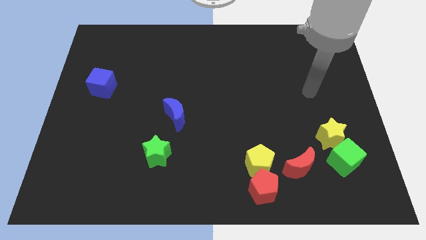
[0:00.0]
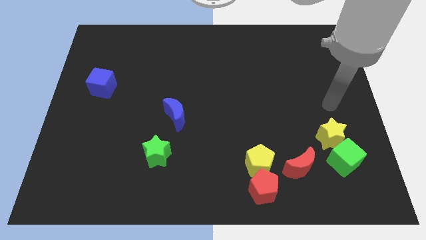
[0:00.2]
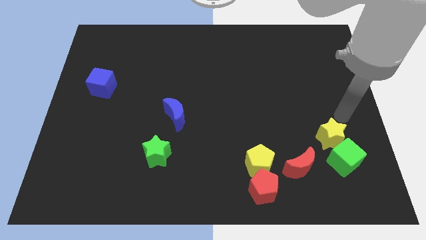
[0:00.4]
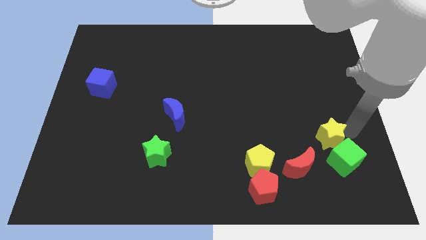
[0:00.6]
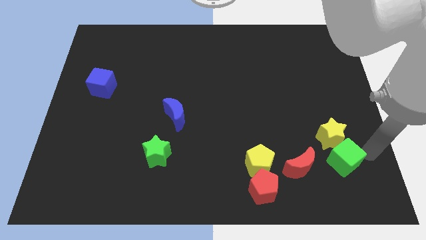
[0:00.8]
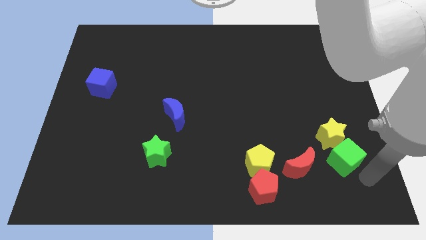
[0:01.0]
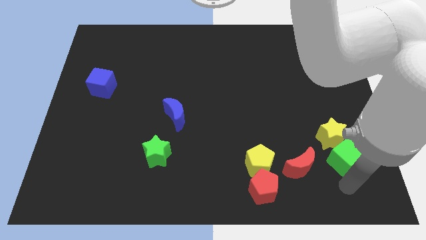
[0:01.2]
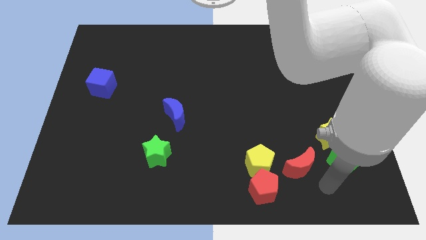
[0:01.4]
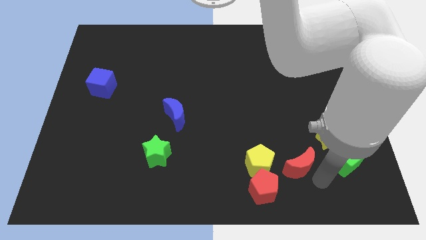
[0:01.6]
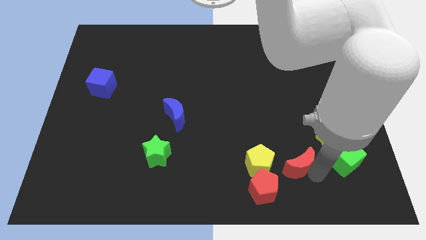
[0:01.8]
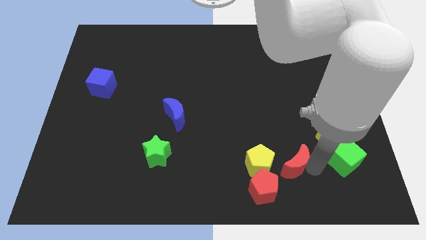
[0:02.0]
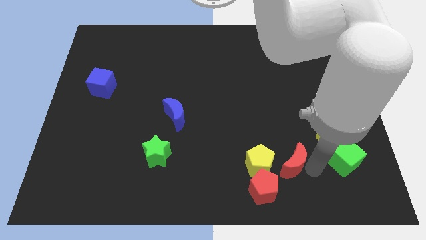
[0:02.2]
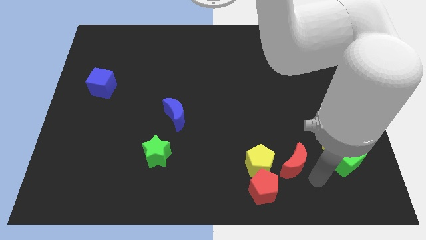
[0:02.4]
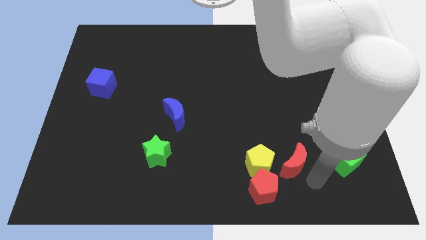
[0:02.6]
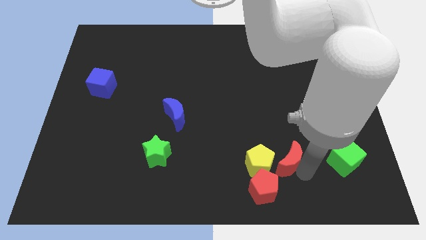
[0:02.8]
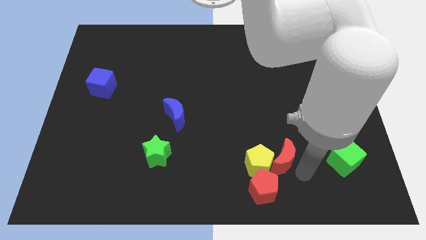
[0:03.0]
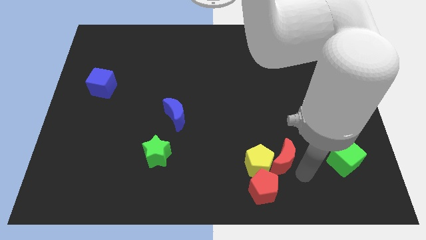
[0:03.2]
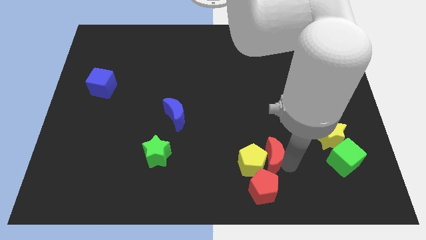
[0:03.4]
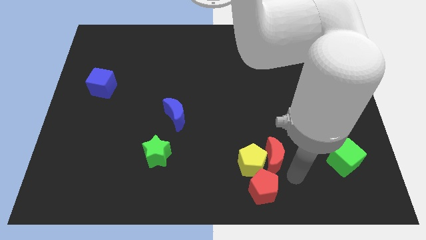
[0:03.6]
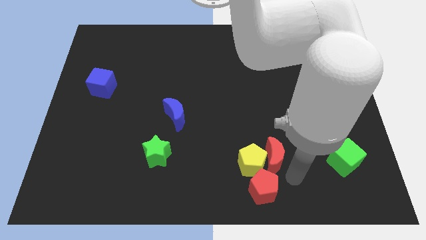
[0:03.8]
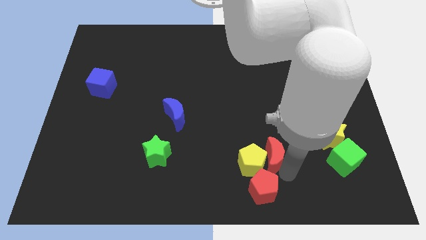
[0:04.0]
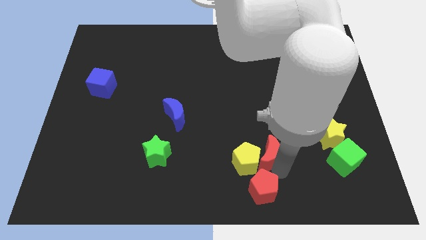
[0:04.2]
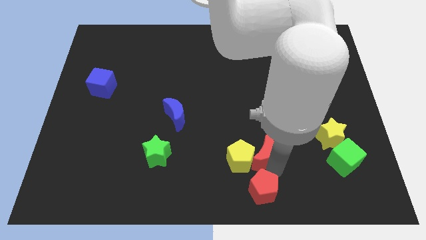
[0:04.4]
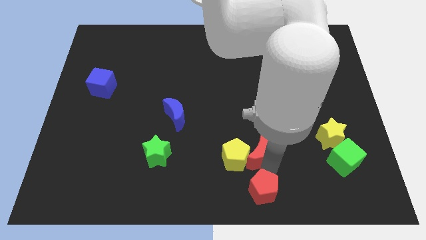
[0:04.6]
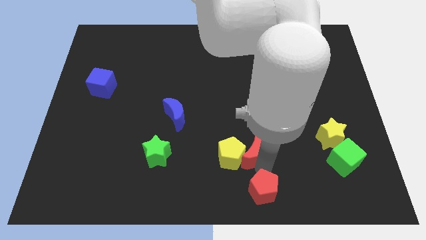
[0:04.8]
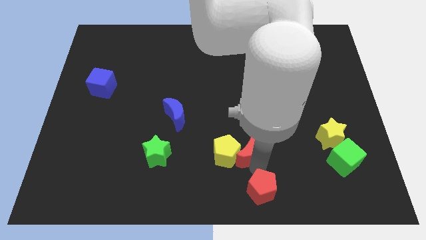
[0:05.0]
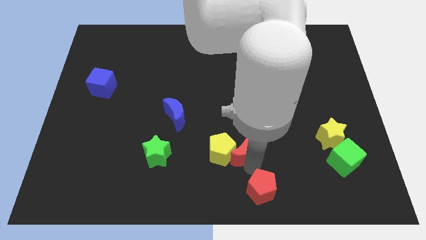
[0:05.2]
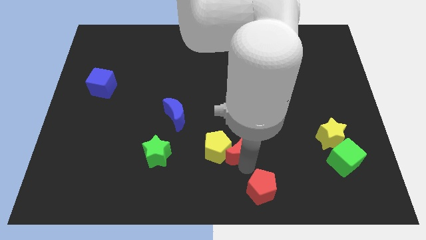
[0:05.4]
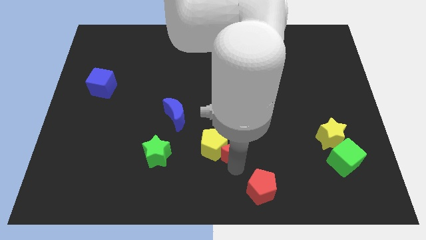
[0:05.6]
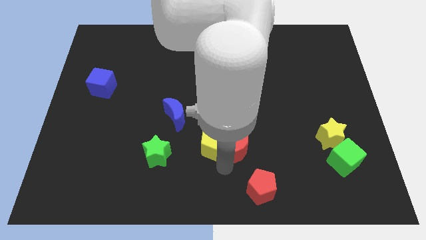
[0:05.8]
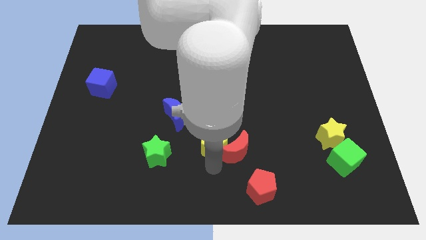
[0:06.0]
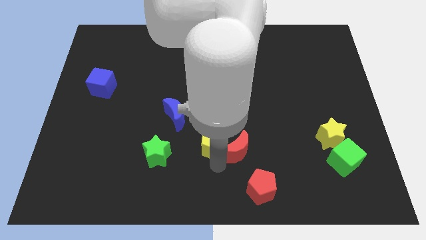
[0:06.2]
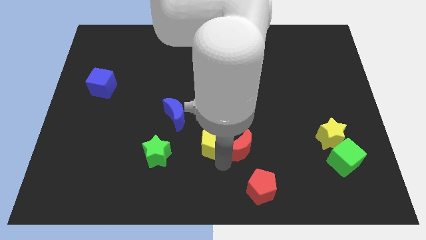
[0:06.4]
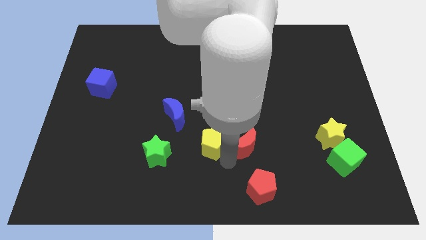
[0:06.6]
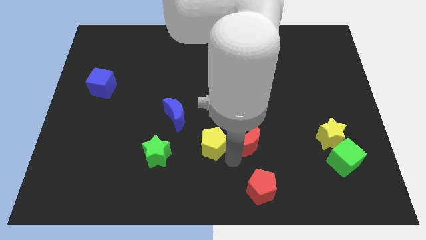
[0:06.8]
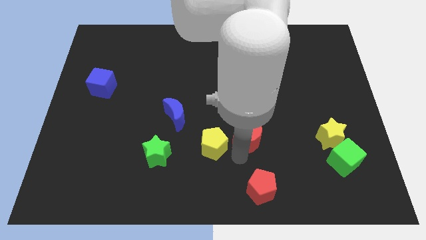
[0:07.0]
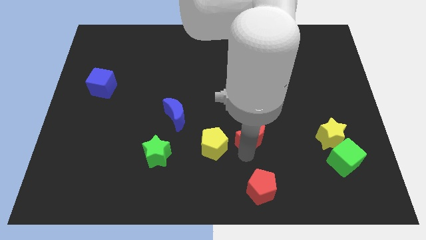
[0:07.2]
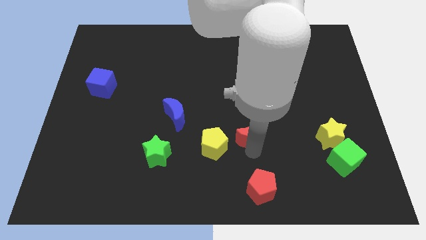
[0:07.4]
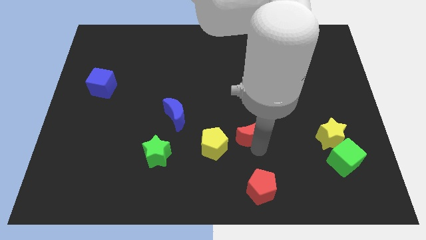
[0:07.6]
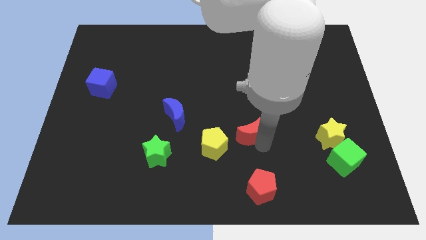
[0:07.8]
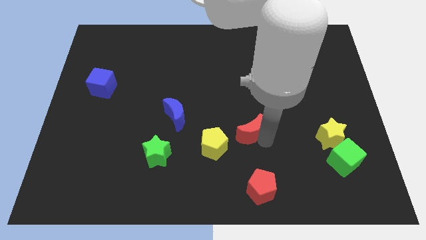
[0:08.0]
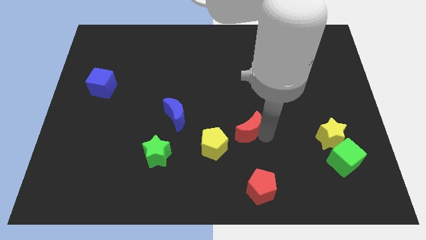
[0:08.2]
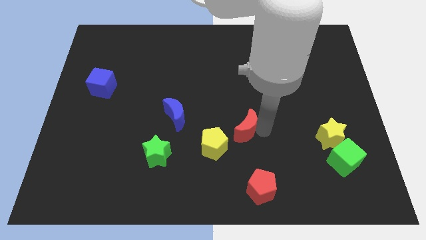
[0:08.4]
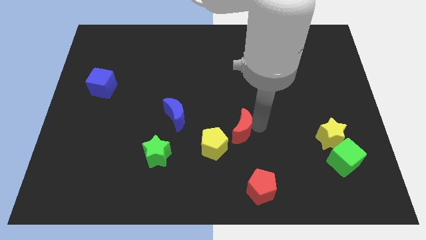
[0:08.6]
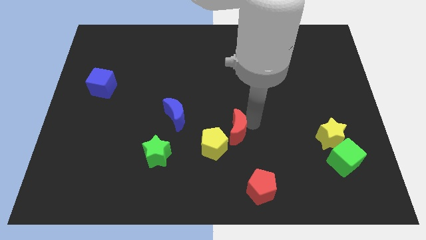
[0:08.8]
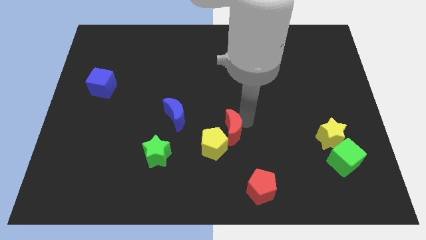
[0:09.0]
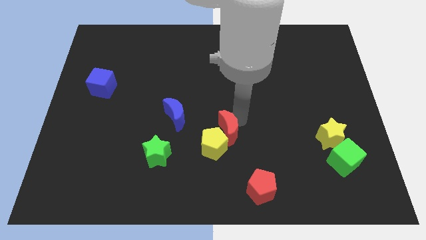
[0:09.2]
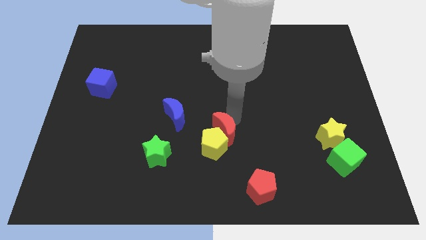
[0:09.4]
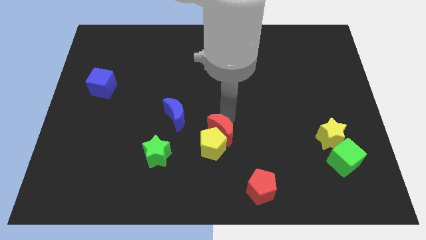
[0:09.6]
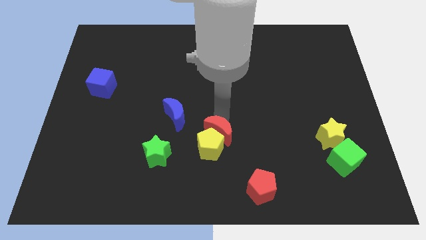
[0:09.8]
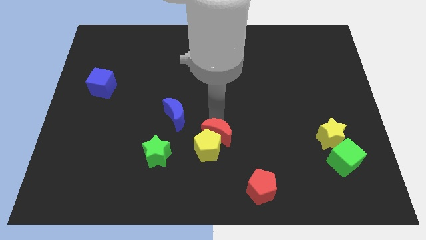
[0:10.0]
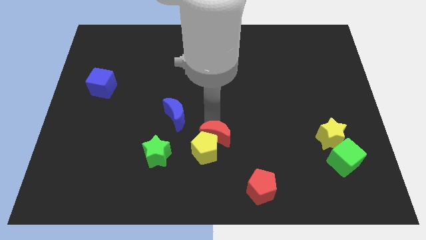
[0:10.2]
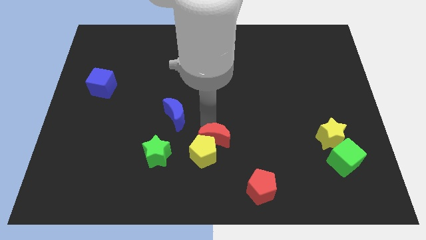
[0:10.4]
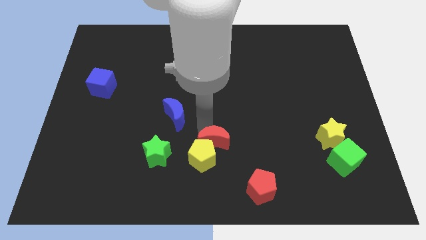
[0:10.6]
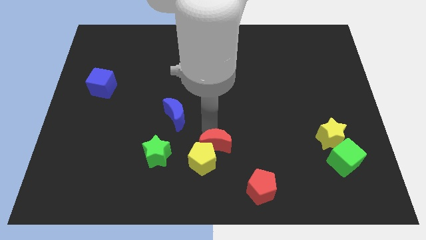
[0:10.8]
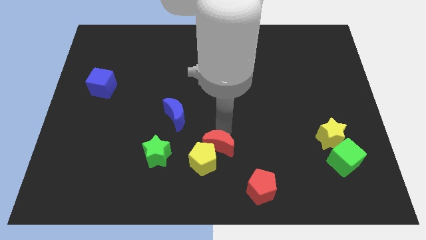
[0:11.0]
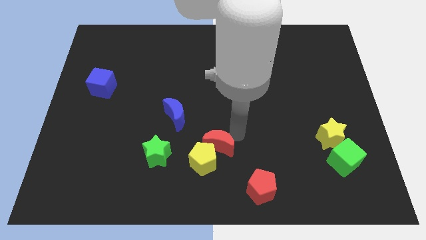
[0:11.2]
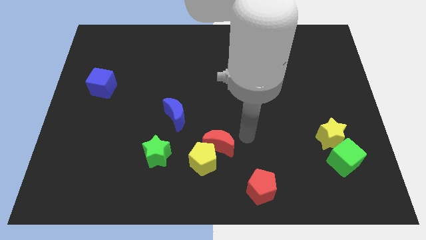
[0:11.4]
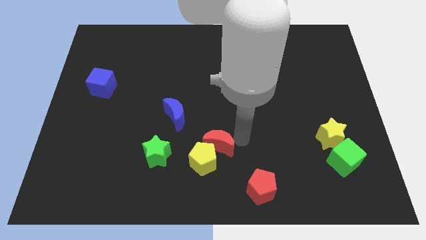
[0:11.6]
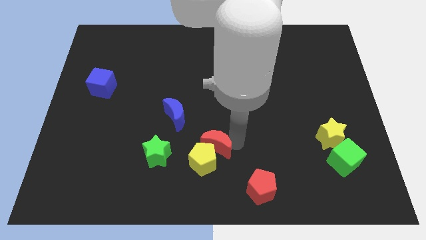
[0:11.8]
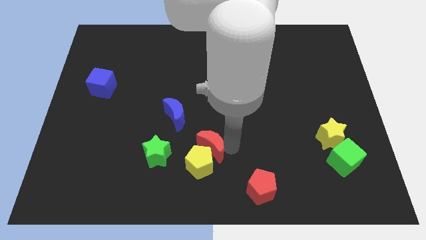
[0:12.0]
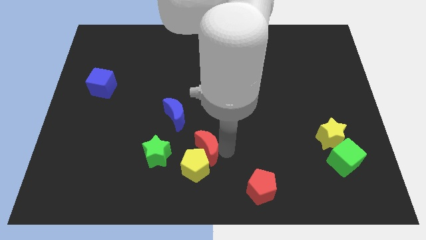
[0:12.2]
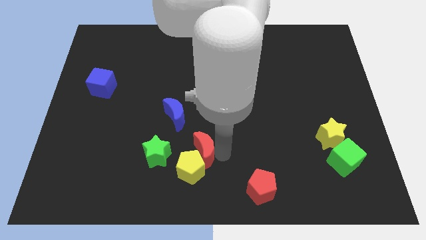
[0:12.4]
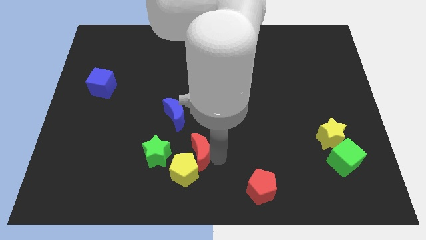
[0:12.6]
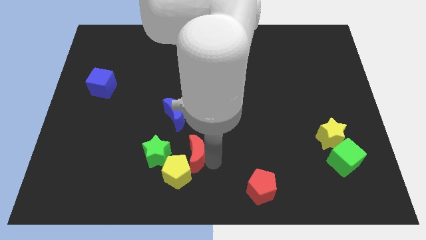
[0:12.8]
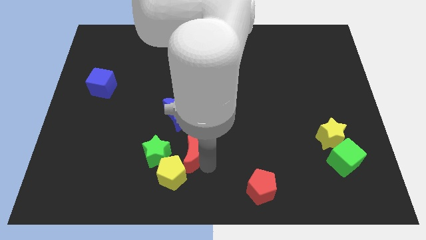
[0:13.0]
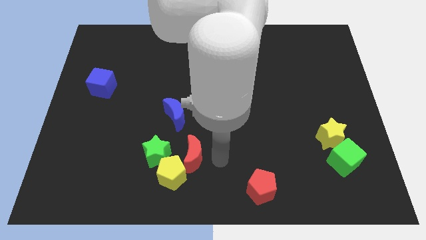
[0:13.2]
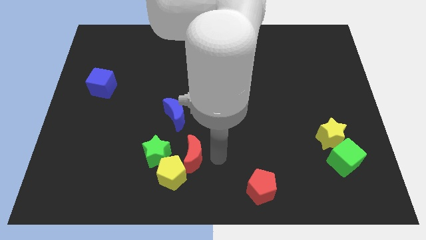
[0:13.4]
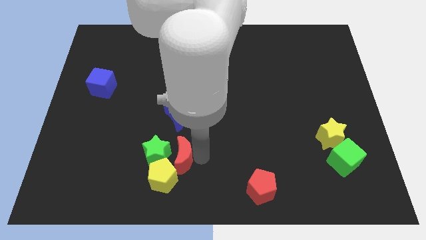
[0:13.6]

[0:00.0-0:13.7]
put the red moon next to the green star
